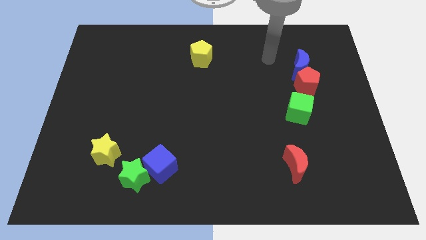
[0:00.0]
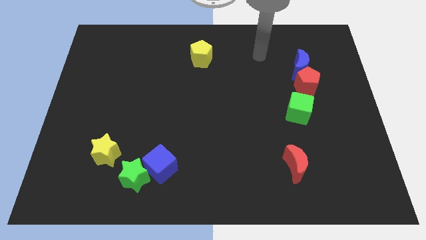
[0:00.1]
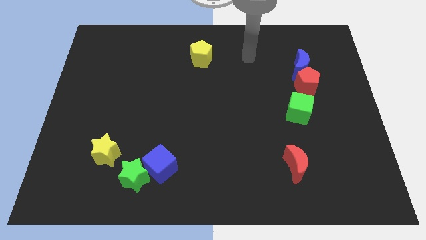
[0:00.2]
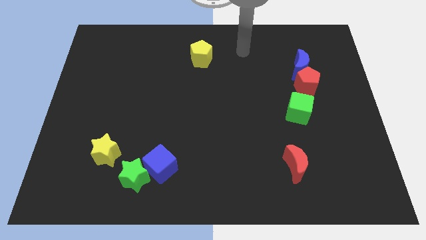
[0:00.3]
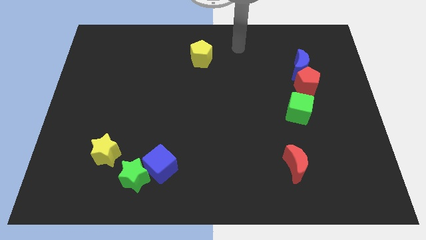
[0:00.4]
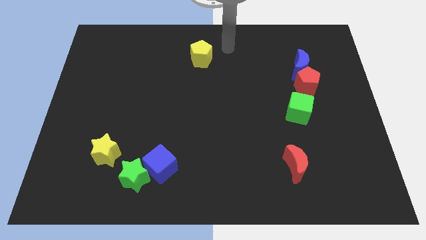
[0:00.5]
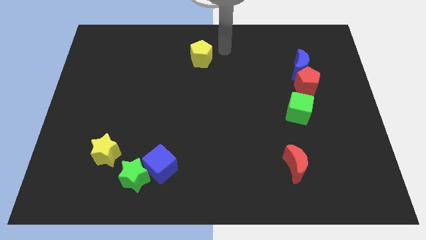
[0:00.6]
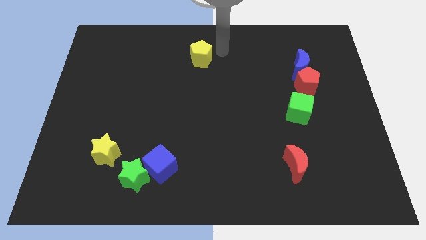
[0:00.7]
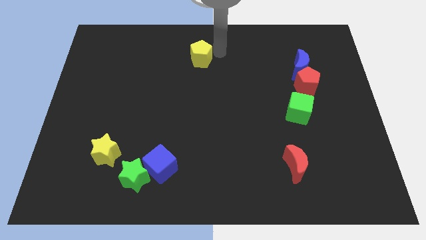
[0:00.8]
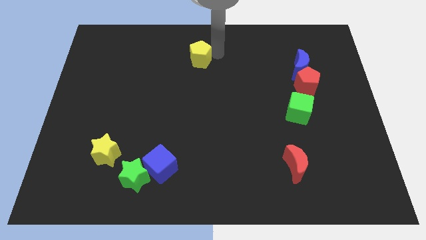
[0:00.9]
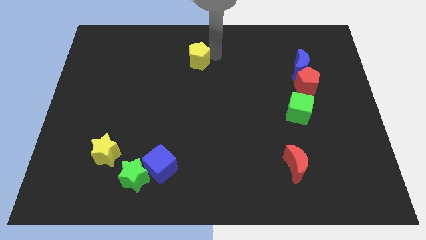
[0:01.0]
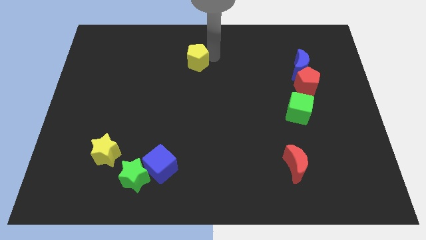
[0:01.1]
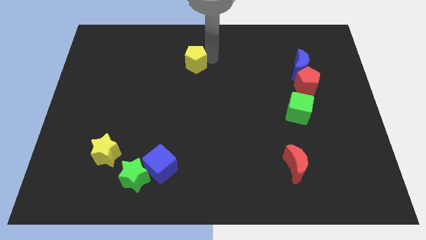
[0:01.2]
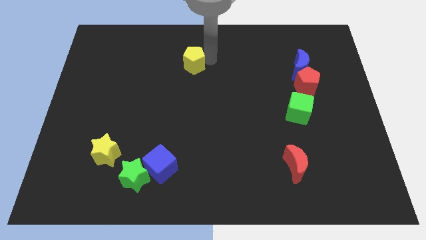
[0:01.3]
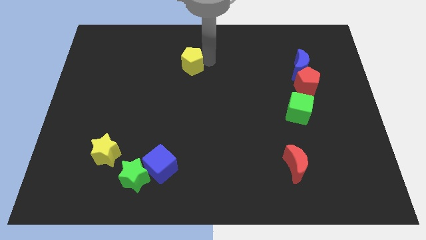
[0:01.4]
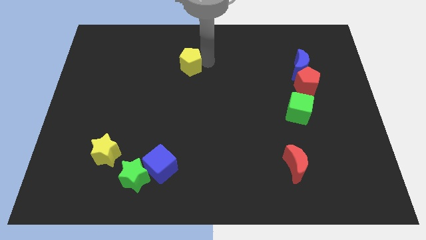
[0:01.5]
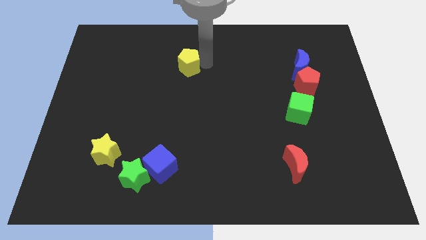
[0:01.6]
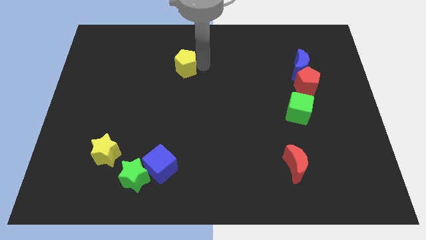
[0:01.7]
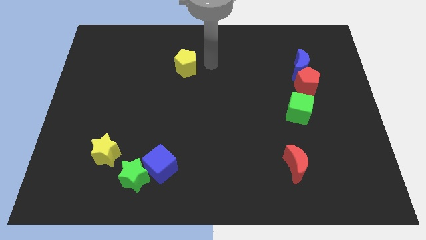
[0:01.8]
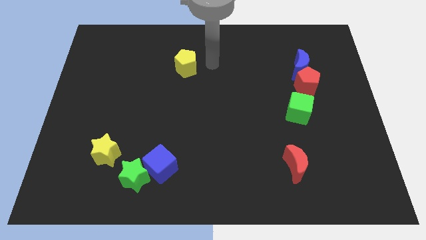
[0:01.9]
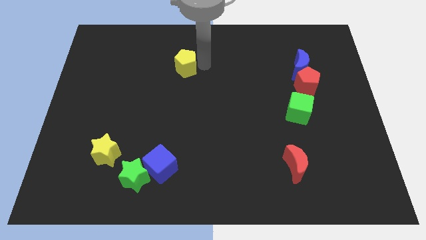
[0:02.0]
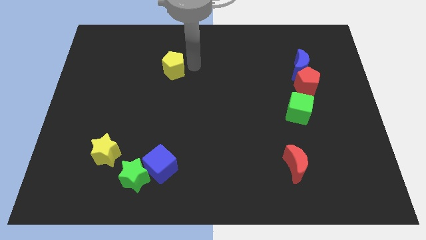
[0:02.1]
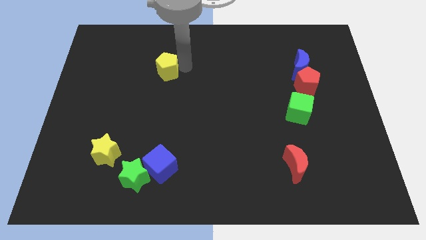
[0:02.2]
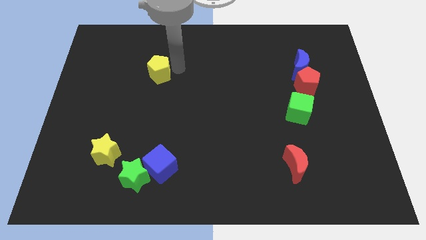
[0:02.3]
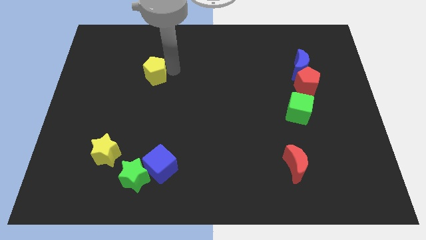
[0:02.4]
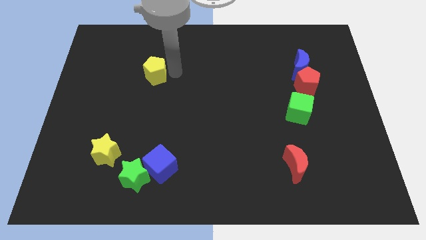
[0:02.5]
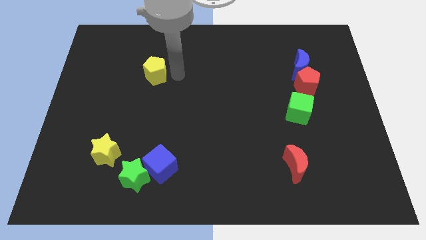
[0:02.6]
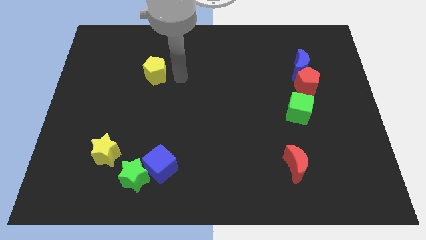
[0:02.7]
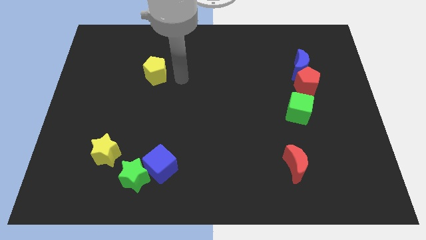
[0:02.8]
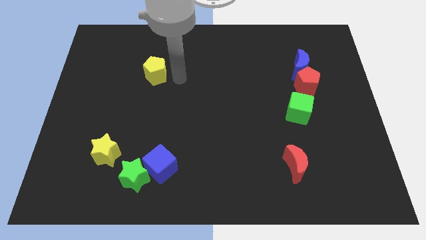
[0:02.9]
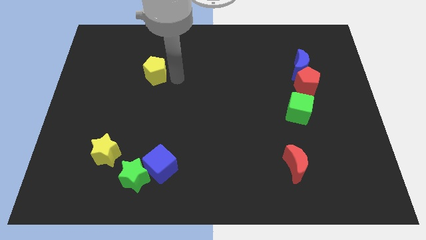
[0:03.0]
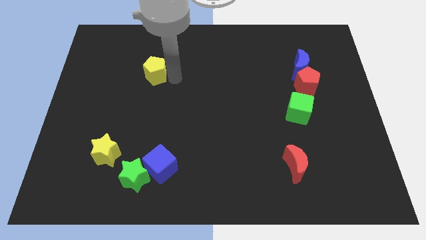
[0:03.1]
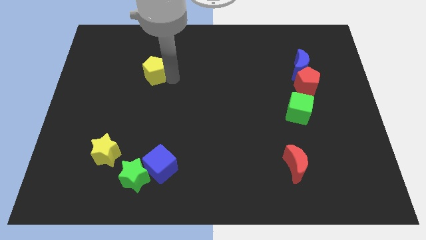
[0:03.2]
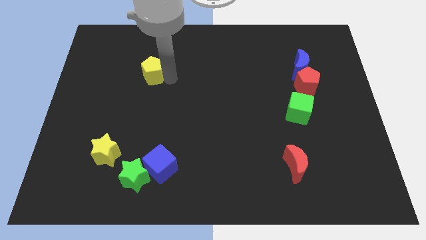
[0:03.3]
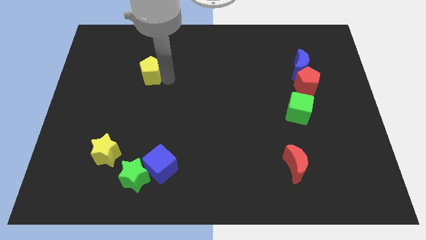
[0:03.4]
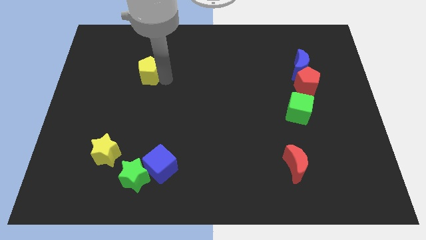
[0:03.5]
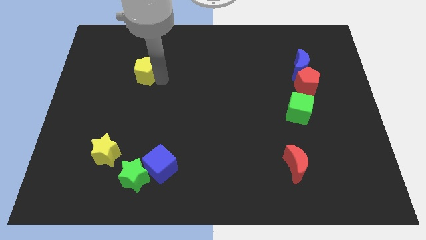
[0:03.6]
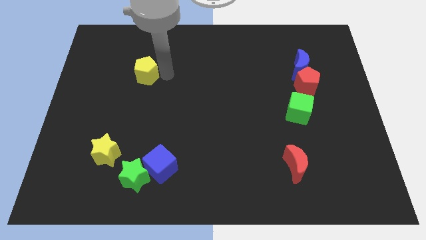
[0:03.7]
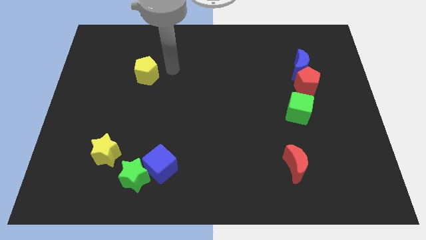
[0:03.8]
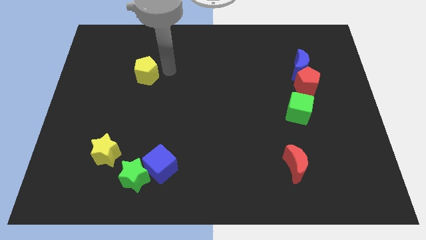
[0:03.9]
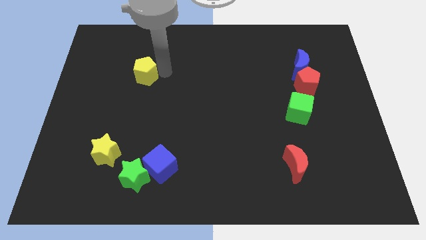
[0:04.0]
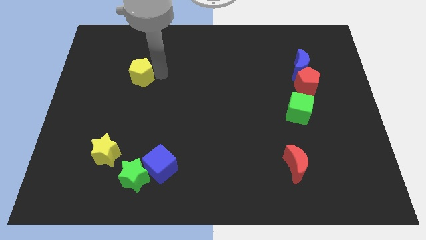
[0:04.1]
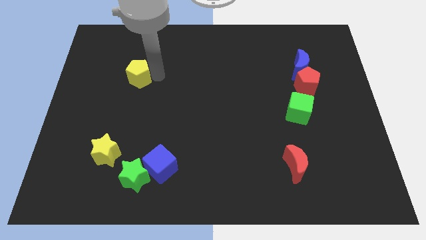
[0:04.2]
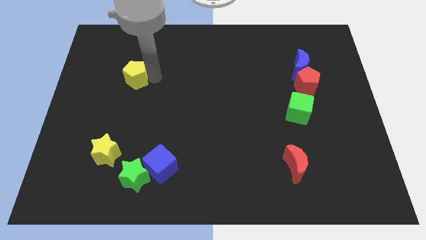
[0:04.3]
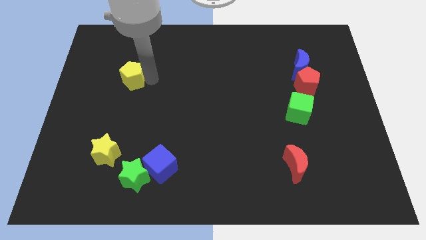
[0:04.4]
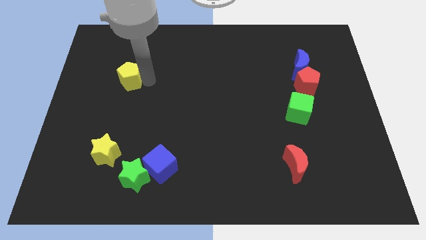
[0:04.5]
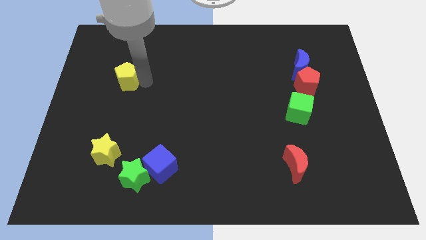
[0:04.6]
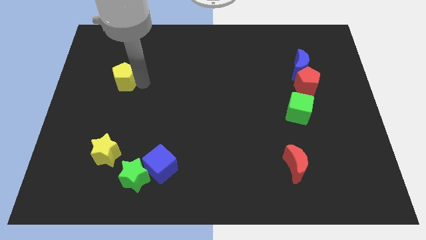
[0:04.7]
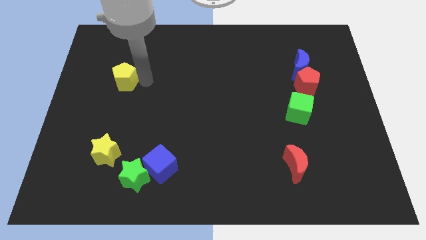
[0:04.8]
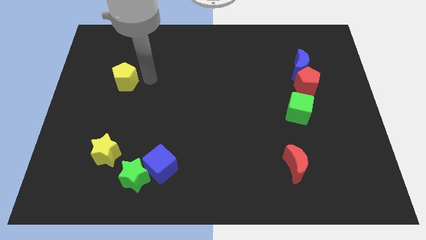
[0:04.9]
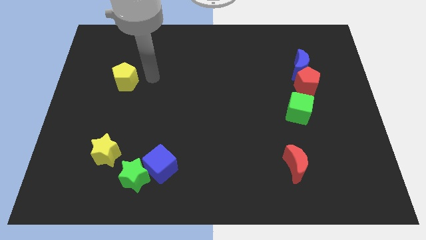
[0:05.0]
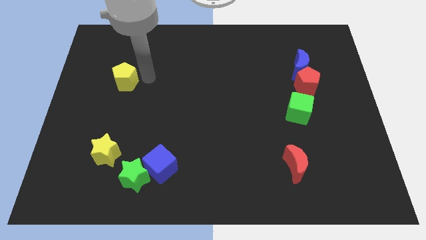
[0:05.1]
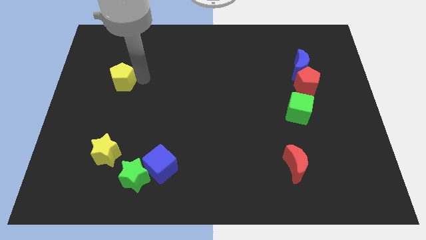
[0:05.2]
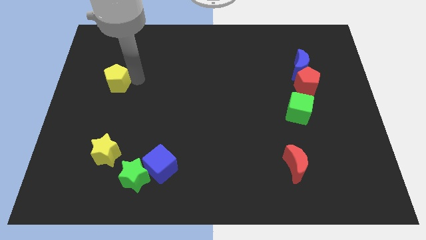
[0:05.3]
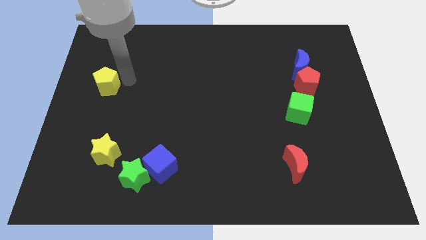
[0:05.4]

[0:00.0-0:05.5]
move the yellow pentagon to the left side of the board

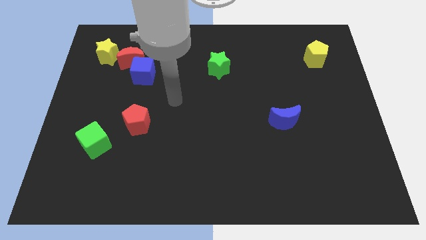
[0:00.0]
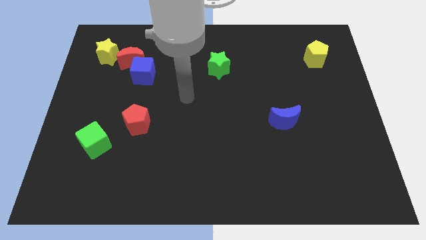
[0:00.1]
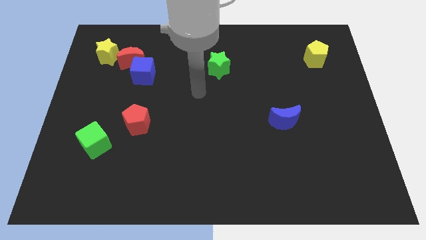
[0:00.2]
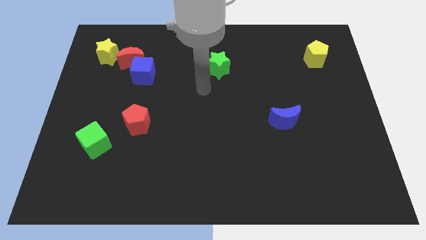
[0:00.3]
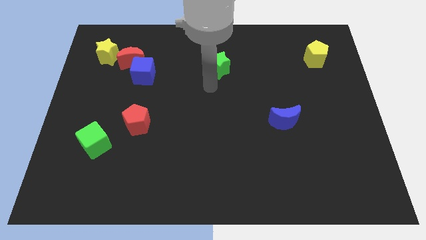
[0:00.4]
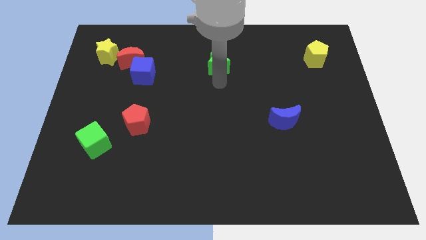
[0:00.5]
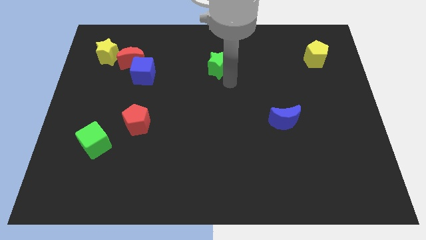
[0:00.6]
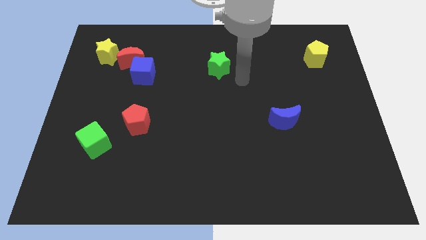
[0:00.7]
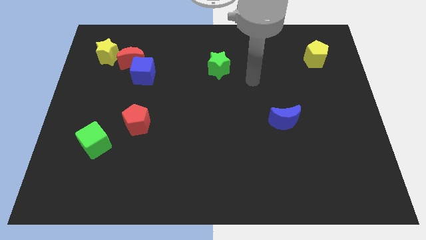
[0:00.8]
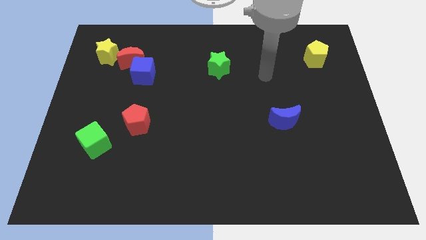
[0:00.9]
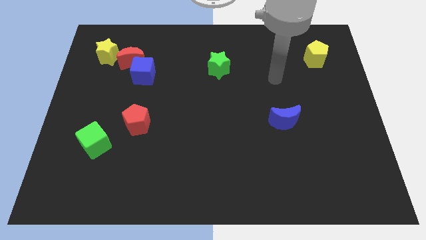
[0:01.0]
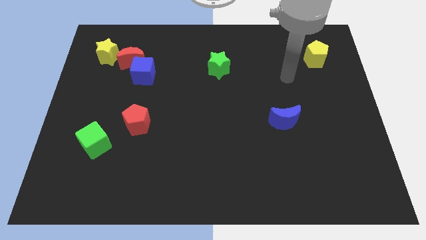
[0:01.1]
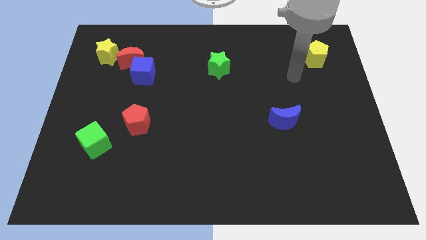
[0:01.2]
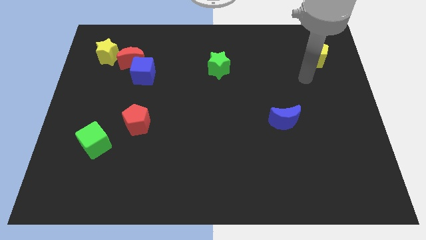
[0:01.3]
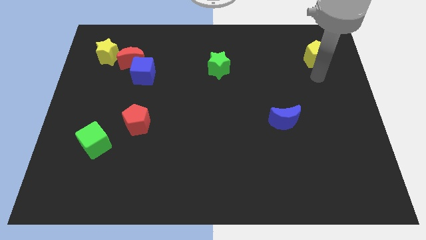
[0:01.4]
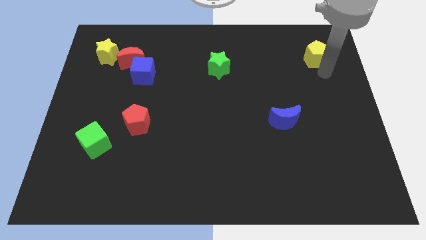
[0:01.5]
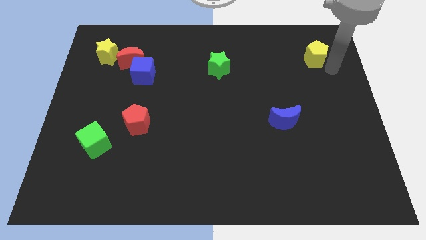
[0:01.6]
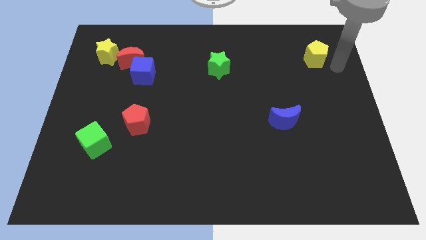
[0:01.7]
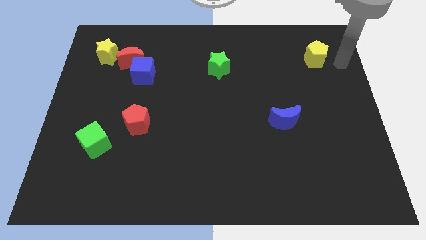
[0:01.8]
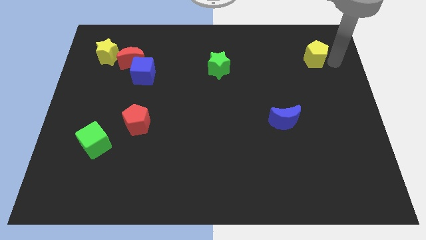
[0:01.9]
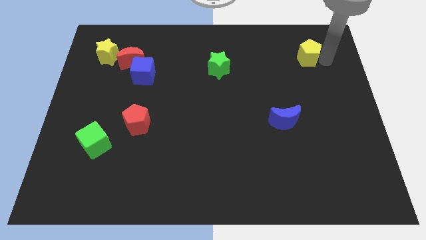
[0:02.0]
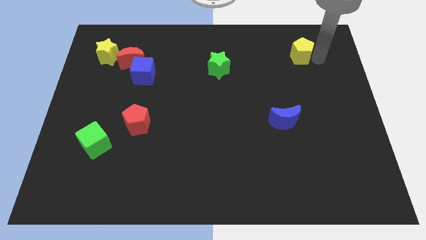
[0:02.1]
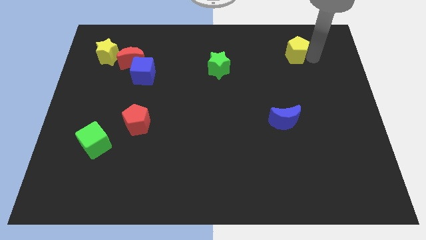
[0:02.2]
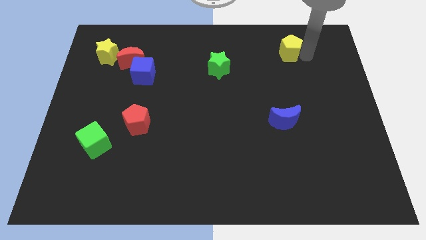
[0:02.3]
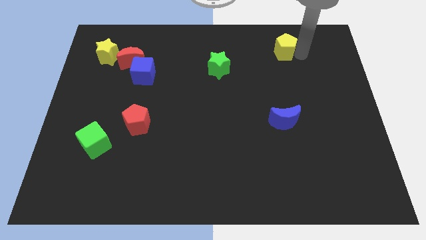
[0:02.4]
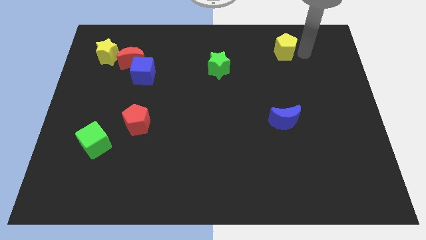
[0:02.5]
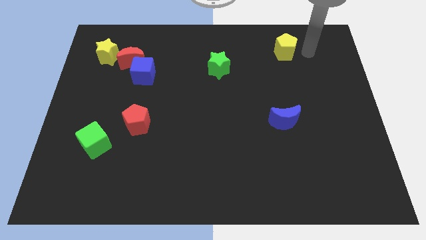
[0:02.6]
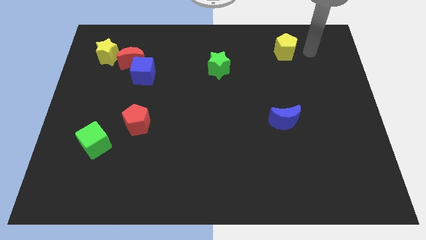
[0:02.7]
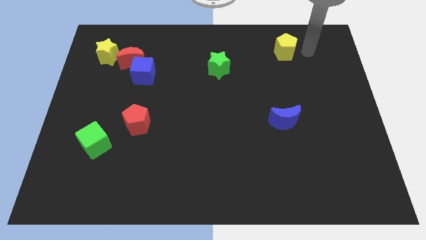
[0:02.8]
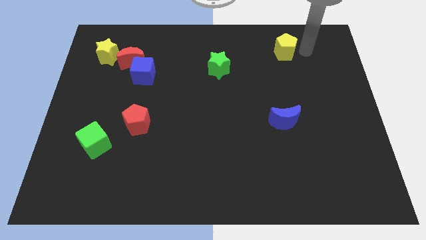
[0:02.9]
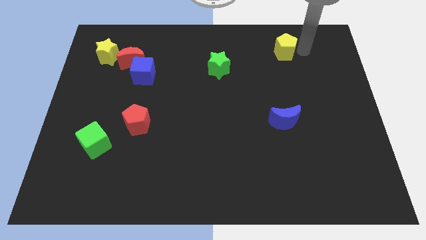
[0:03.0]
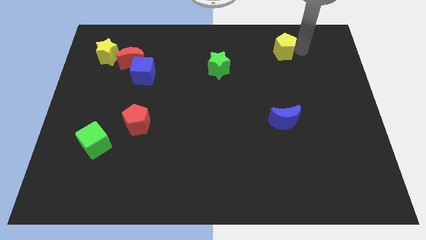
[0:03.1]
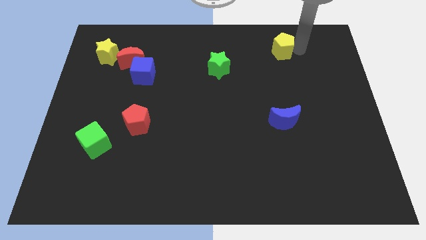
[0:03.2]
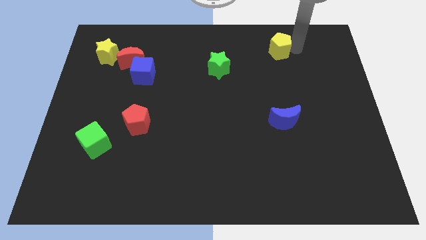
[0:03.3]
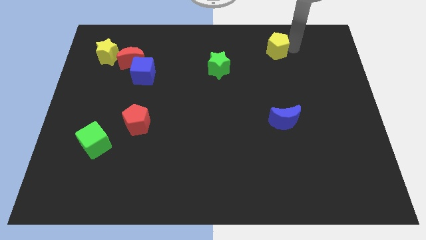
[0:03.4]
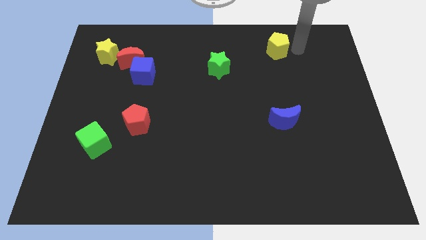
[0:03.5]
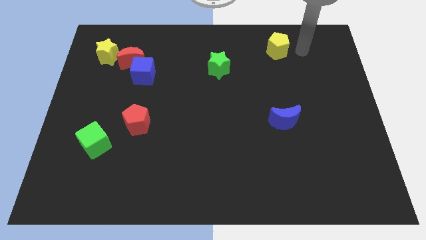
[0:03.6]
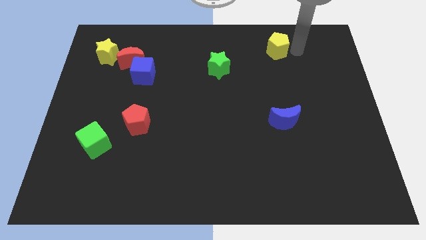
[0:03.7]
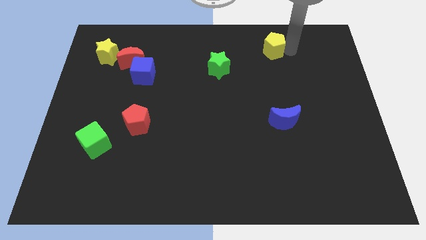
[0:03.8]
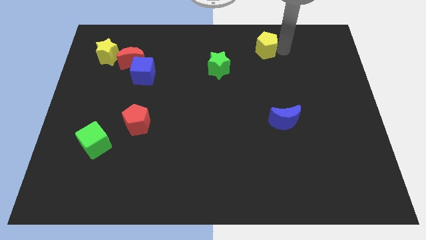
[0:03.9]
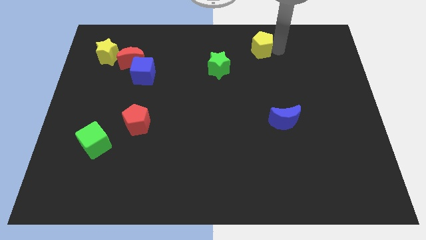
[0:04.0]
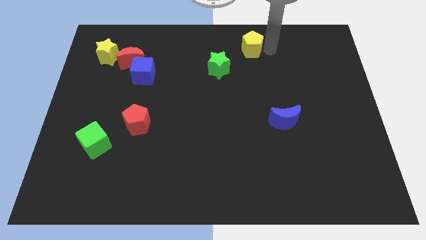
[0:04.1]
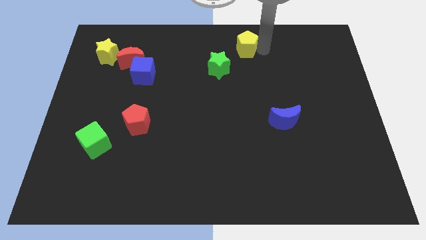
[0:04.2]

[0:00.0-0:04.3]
slide the yellow pentagon to the towards your base
